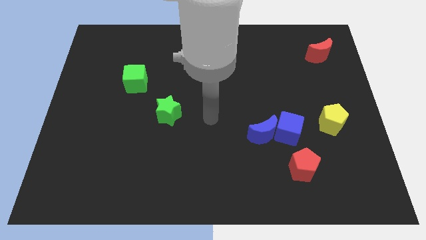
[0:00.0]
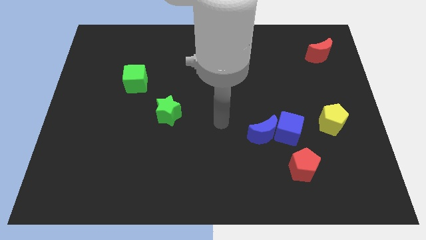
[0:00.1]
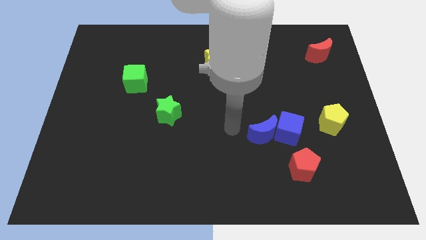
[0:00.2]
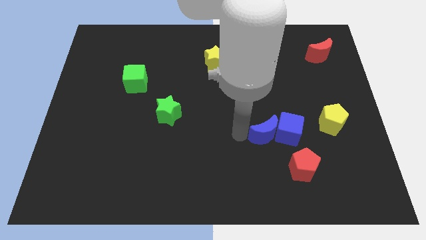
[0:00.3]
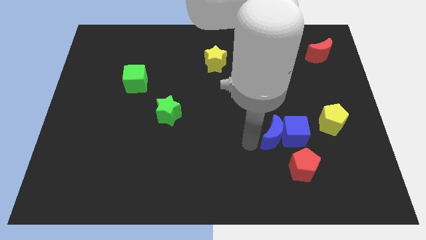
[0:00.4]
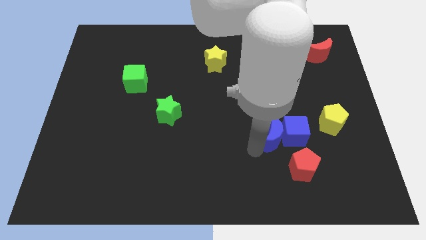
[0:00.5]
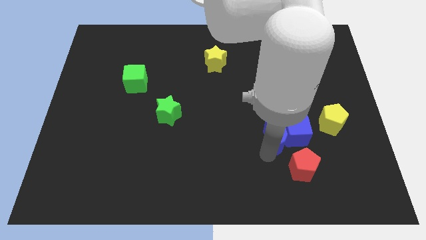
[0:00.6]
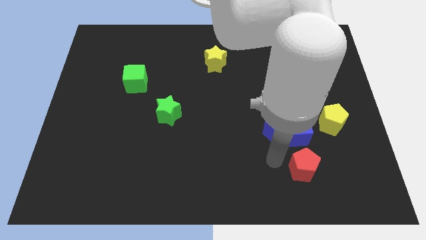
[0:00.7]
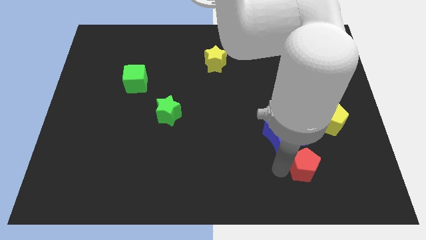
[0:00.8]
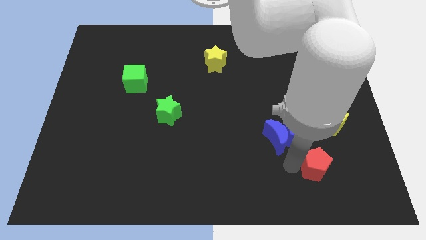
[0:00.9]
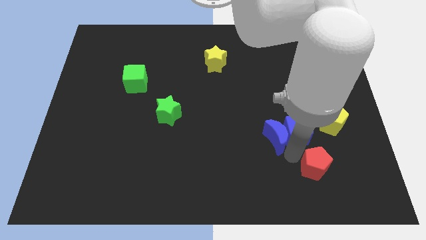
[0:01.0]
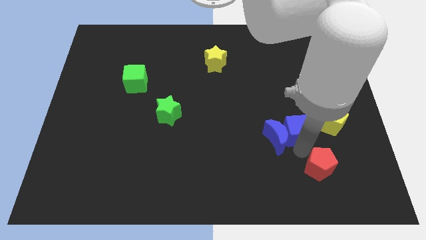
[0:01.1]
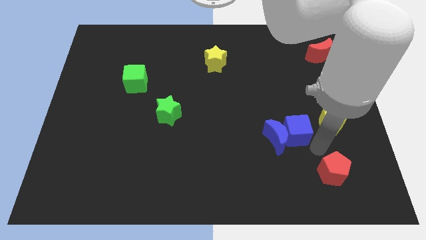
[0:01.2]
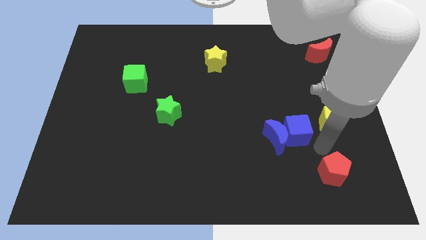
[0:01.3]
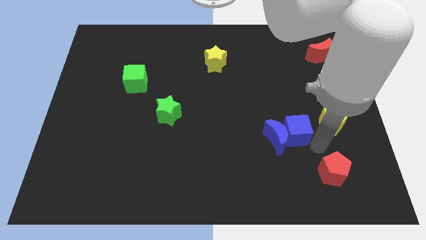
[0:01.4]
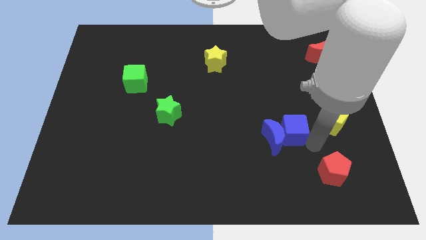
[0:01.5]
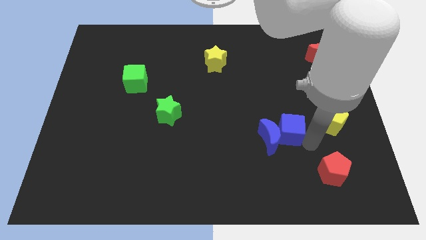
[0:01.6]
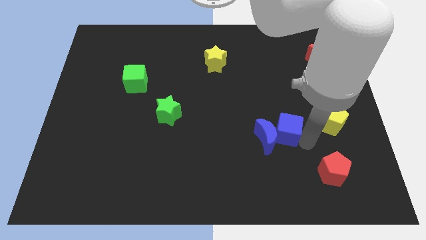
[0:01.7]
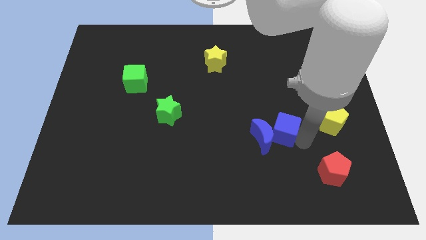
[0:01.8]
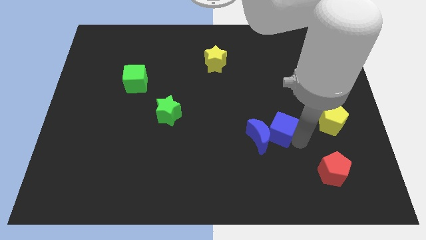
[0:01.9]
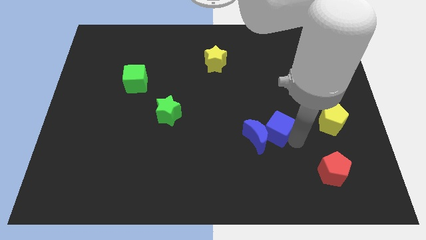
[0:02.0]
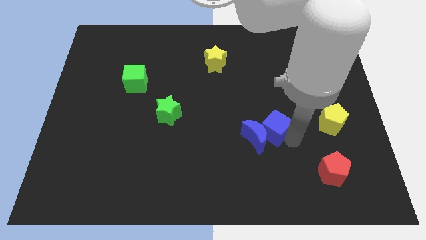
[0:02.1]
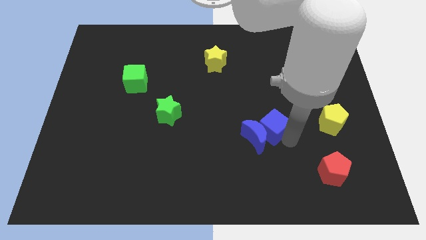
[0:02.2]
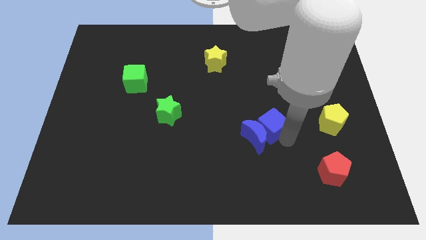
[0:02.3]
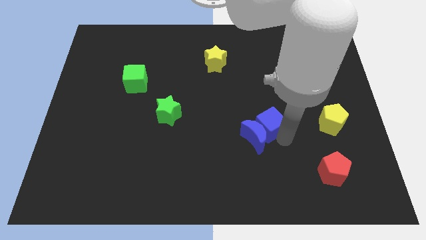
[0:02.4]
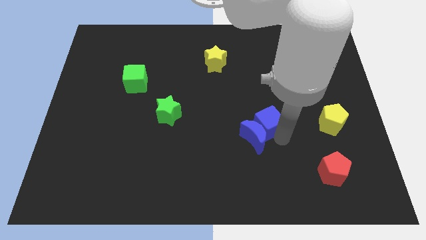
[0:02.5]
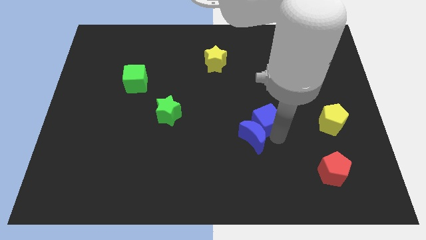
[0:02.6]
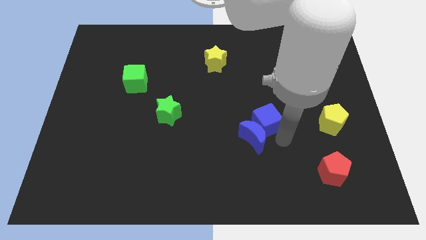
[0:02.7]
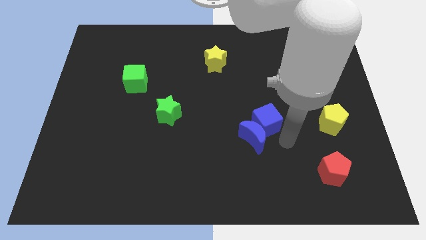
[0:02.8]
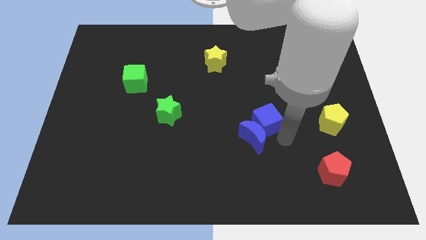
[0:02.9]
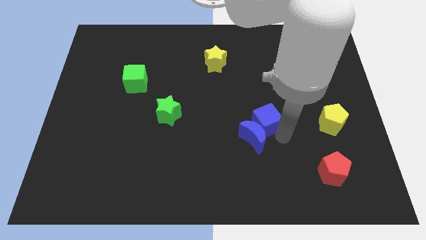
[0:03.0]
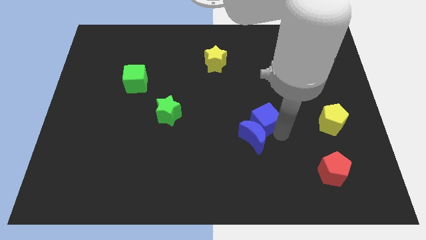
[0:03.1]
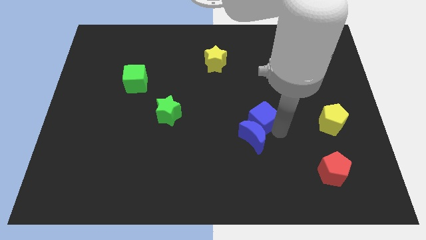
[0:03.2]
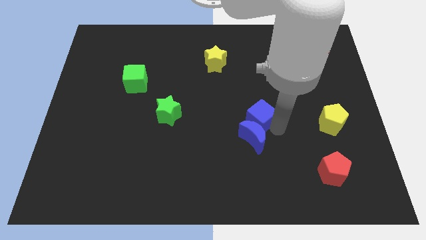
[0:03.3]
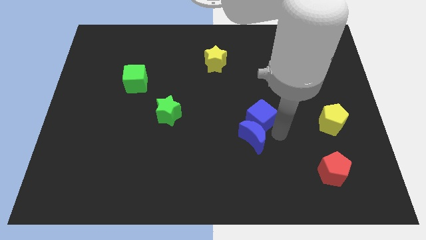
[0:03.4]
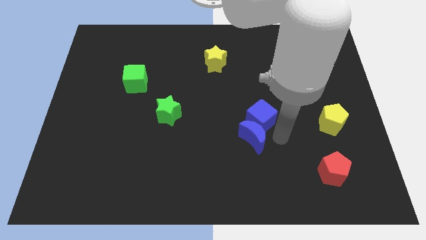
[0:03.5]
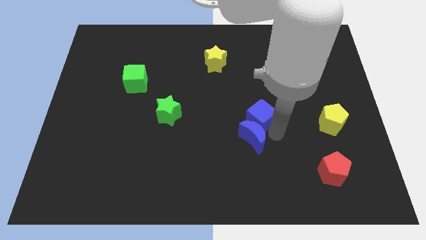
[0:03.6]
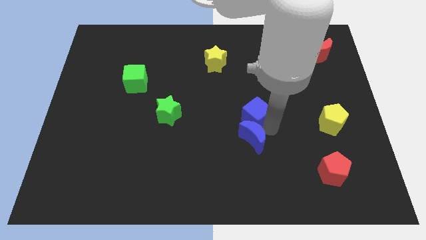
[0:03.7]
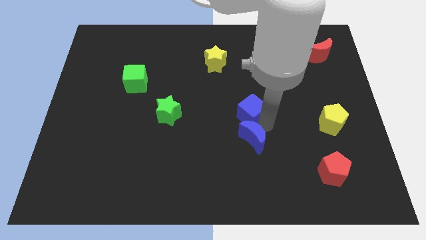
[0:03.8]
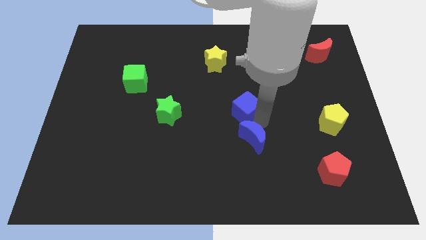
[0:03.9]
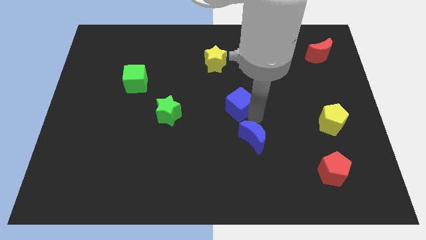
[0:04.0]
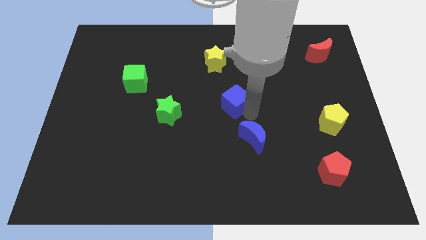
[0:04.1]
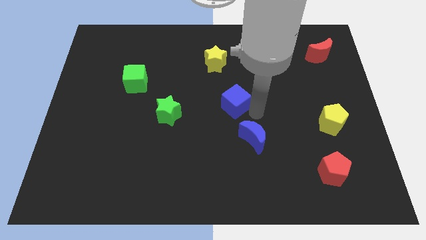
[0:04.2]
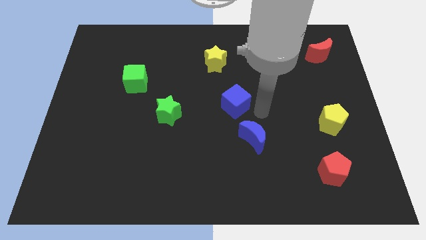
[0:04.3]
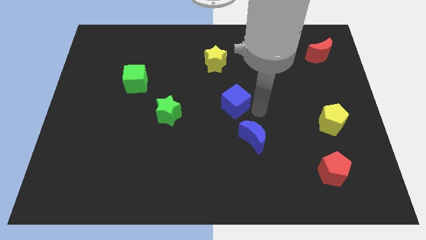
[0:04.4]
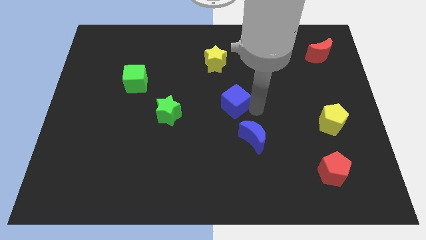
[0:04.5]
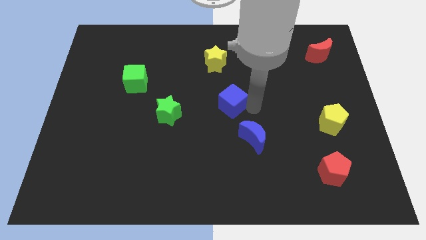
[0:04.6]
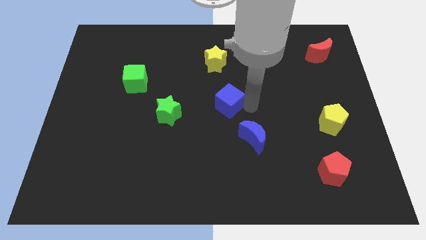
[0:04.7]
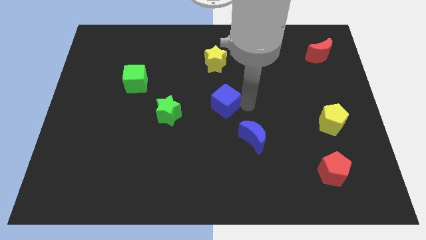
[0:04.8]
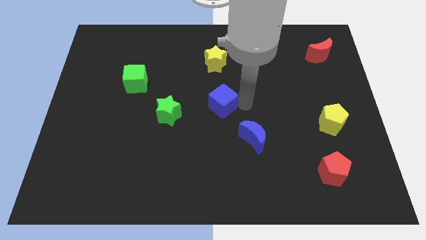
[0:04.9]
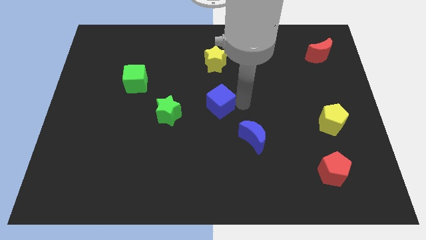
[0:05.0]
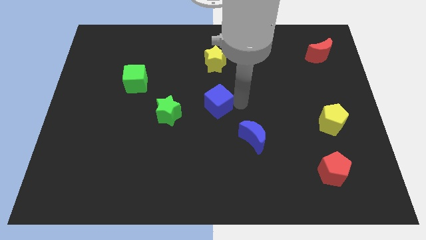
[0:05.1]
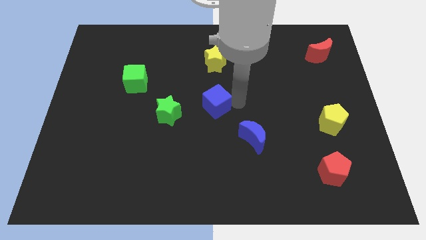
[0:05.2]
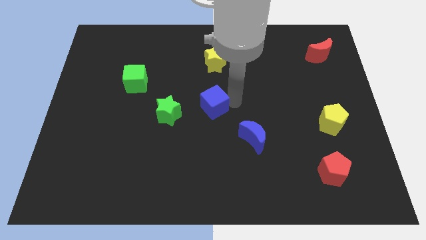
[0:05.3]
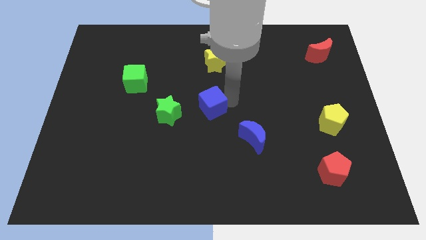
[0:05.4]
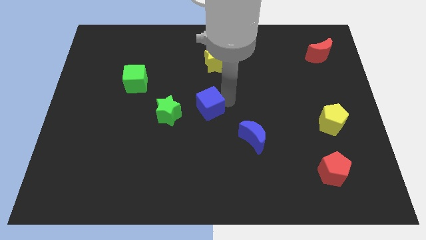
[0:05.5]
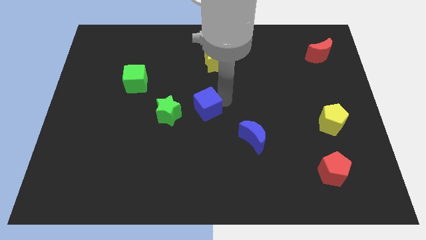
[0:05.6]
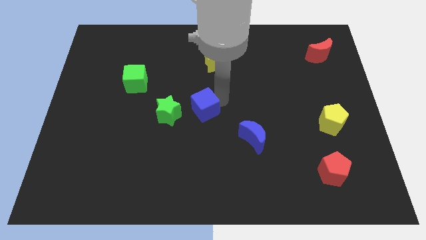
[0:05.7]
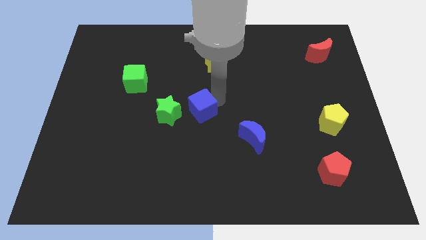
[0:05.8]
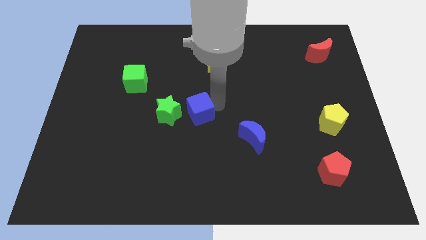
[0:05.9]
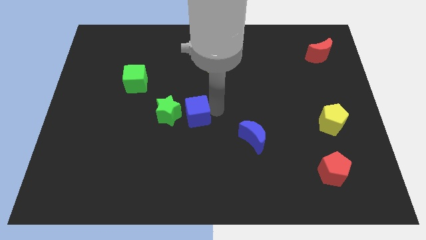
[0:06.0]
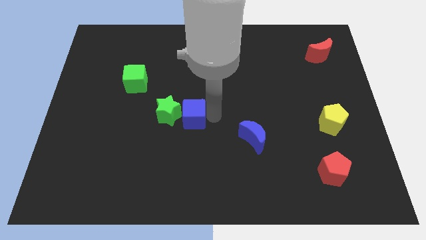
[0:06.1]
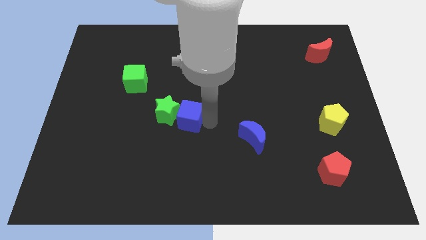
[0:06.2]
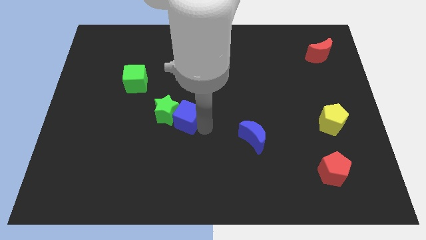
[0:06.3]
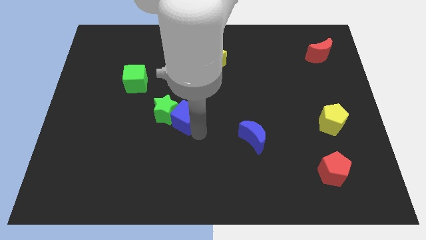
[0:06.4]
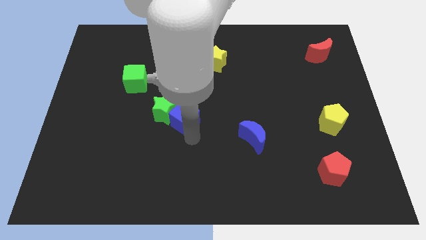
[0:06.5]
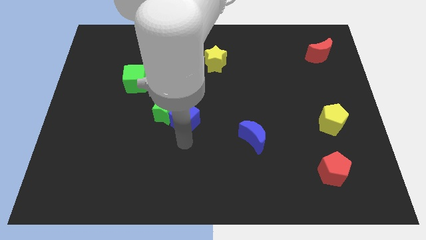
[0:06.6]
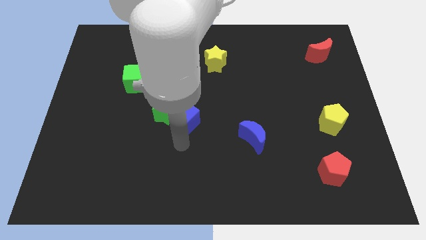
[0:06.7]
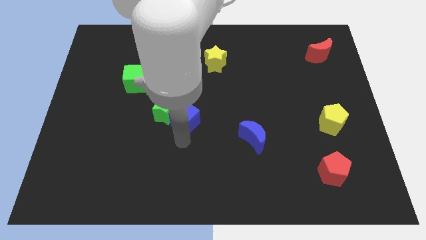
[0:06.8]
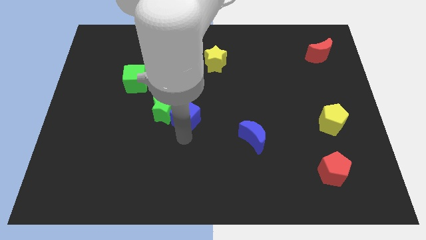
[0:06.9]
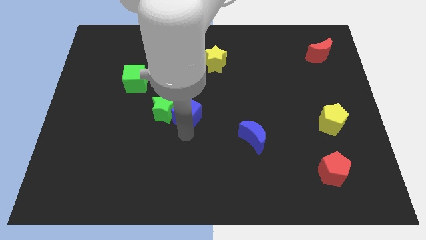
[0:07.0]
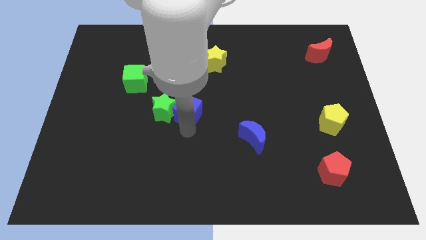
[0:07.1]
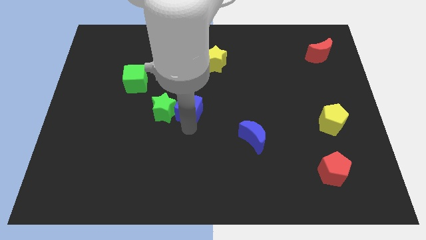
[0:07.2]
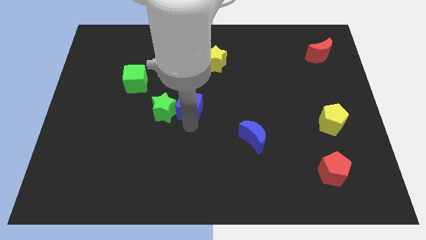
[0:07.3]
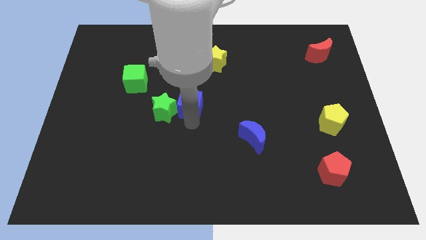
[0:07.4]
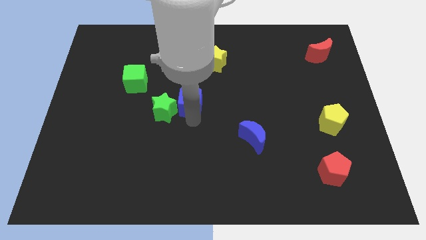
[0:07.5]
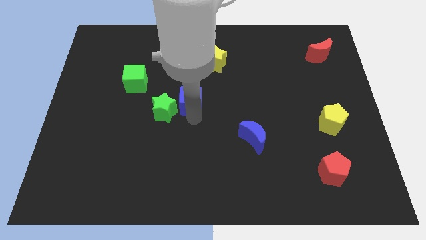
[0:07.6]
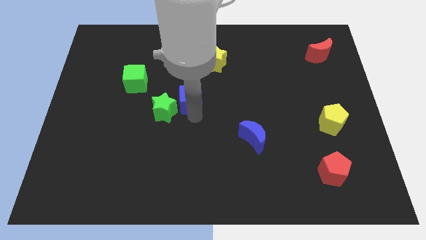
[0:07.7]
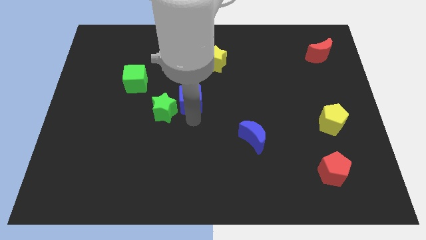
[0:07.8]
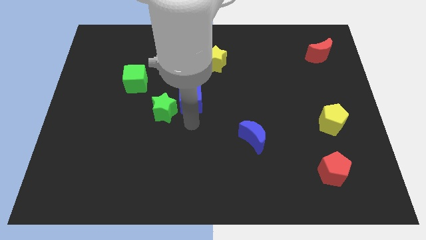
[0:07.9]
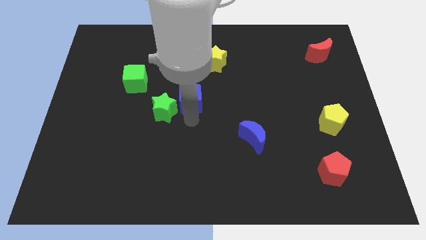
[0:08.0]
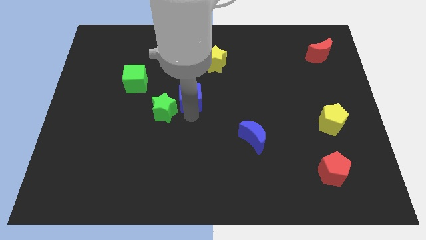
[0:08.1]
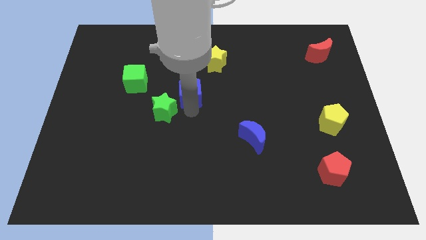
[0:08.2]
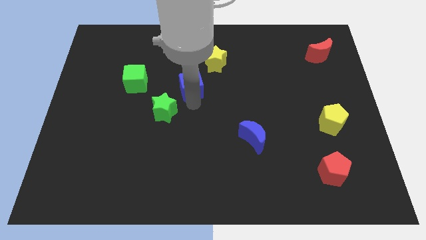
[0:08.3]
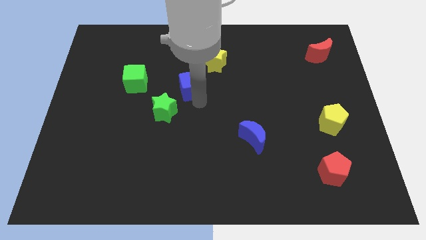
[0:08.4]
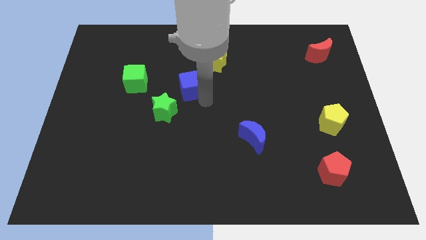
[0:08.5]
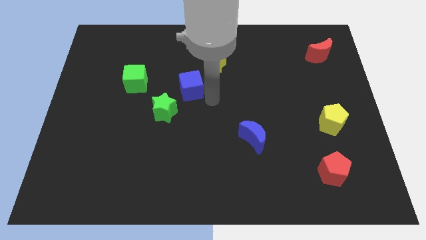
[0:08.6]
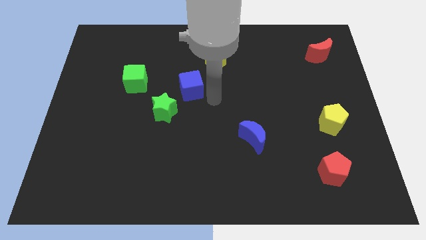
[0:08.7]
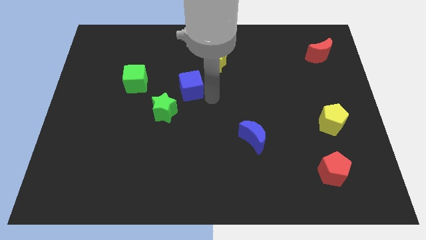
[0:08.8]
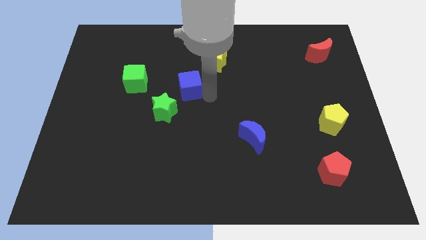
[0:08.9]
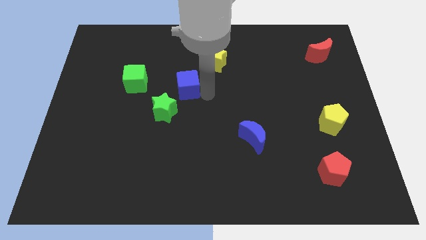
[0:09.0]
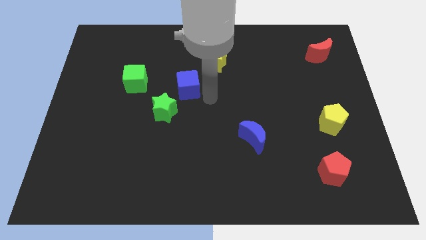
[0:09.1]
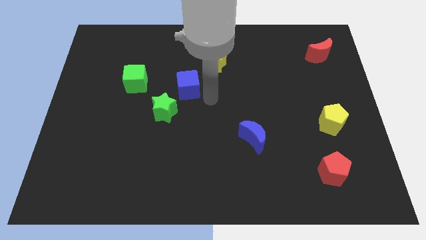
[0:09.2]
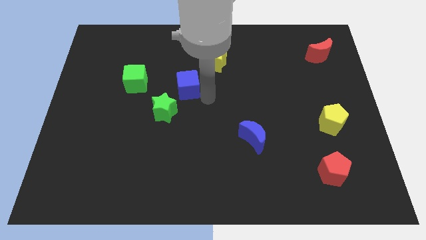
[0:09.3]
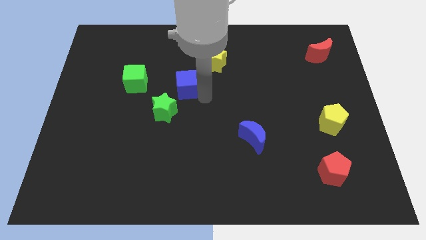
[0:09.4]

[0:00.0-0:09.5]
put the blue cube to the top of the green star
